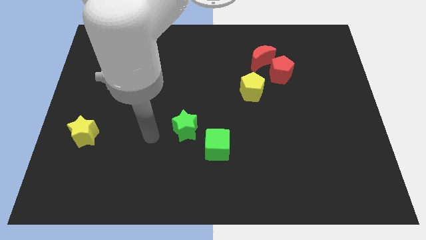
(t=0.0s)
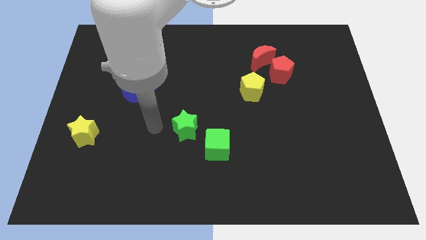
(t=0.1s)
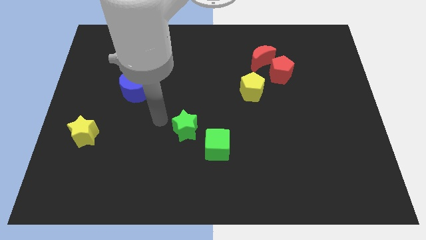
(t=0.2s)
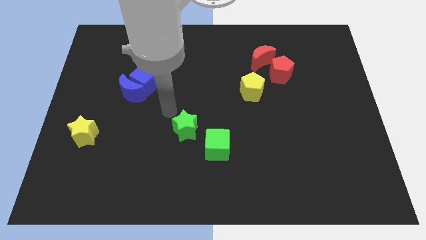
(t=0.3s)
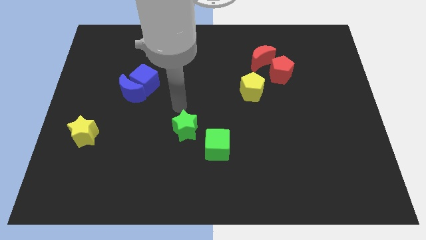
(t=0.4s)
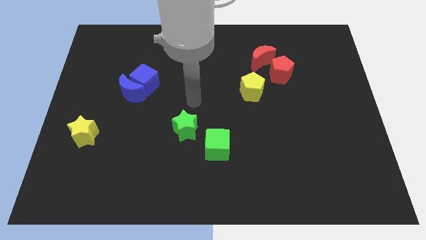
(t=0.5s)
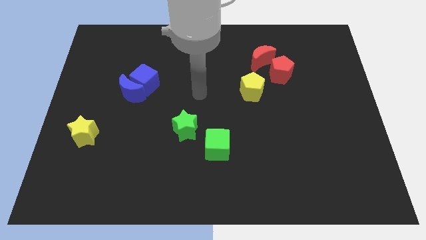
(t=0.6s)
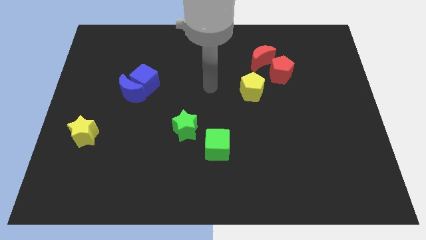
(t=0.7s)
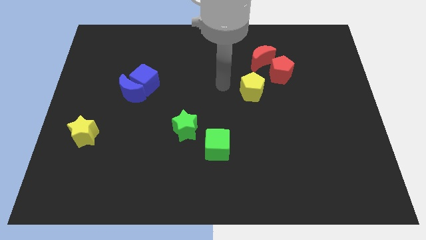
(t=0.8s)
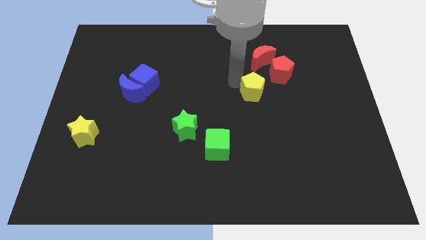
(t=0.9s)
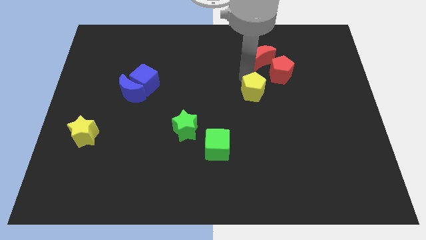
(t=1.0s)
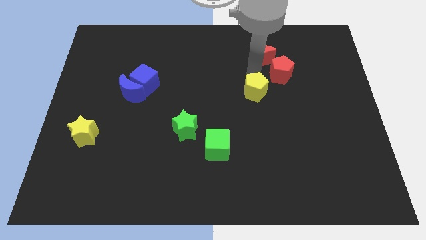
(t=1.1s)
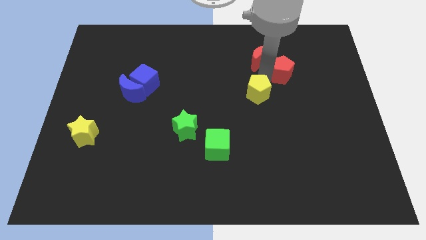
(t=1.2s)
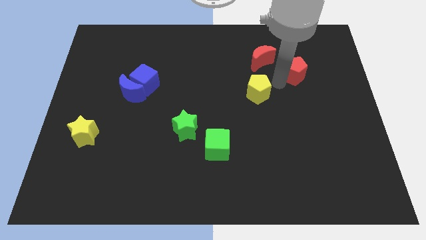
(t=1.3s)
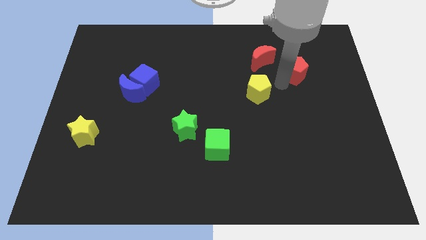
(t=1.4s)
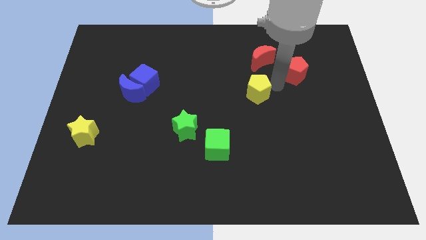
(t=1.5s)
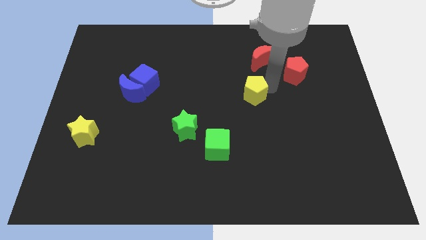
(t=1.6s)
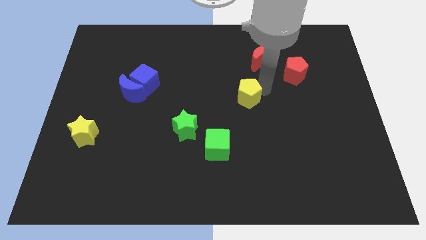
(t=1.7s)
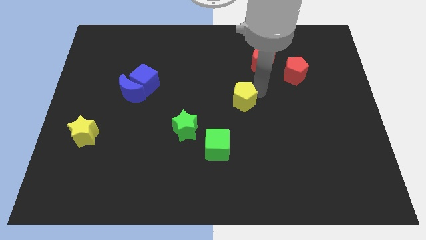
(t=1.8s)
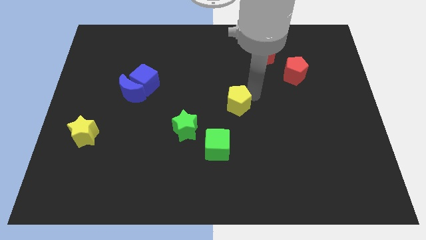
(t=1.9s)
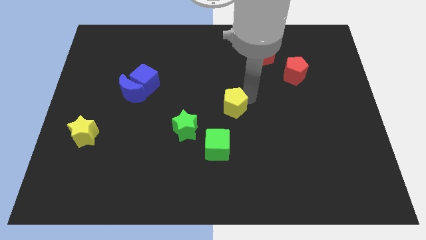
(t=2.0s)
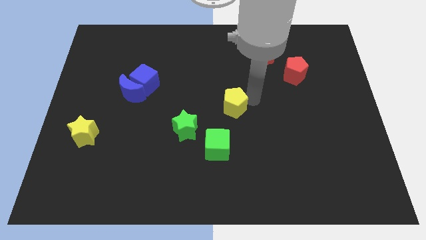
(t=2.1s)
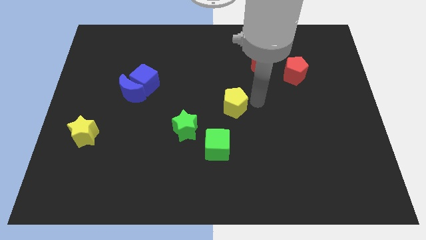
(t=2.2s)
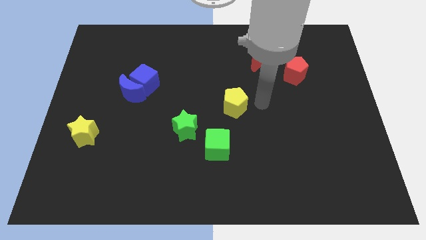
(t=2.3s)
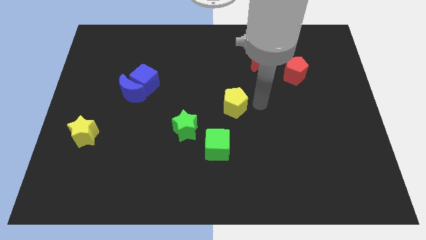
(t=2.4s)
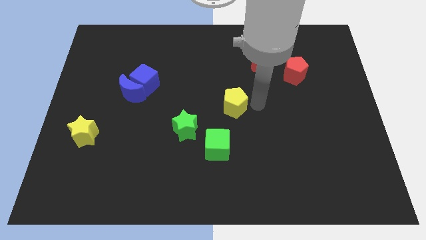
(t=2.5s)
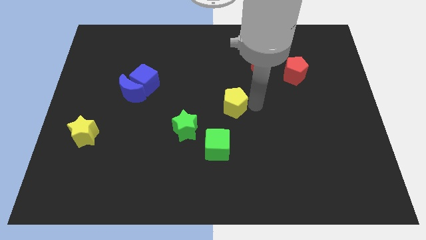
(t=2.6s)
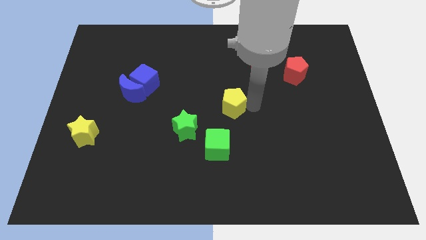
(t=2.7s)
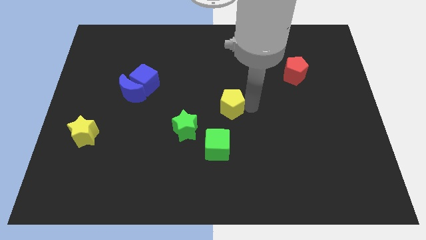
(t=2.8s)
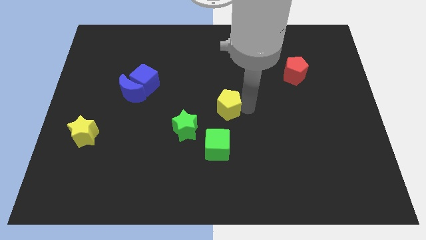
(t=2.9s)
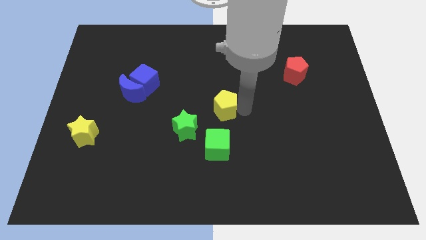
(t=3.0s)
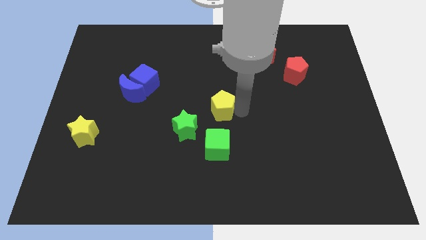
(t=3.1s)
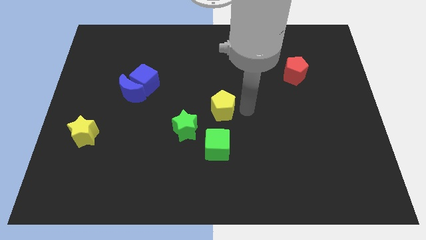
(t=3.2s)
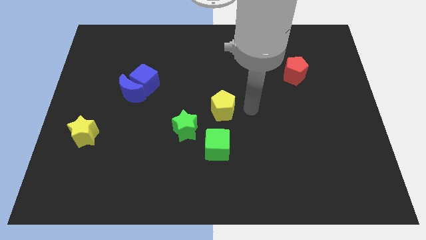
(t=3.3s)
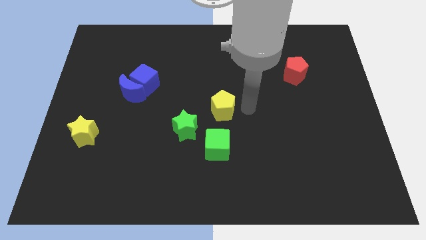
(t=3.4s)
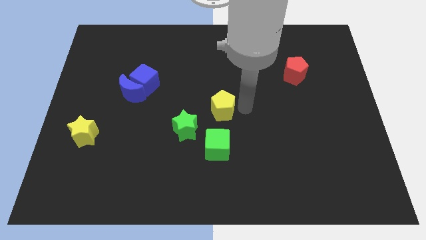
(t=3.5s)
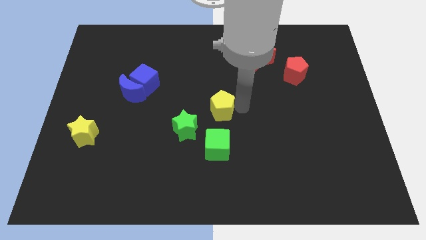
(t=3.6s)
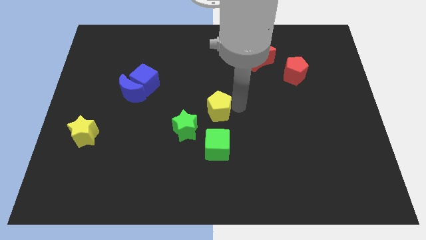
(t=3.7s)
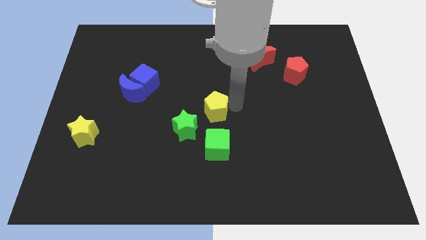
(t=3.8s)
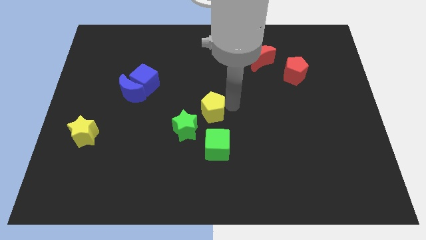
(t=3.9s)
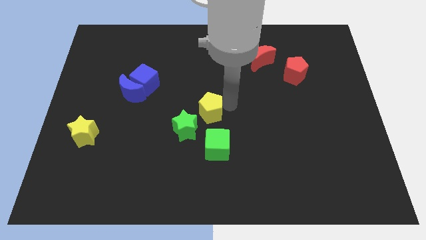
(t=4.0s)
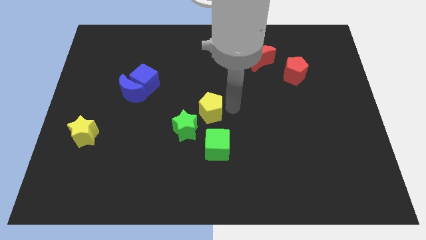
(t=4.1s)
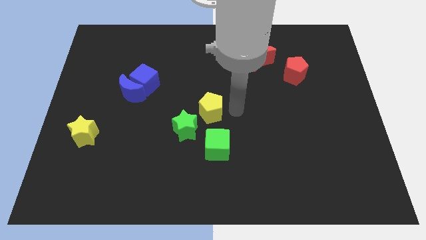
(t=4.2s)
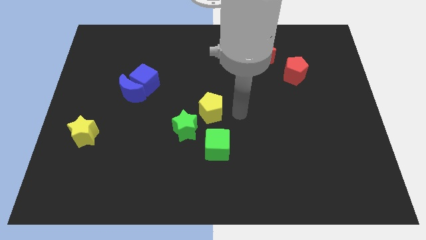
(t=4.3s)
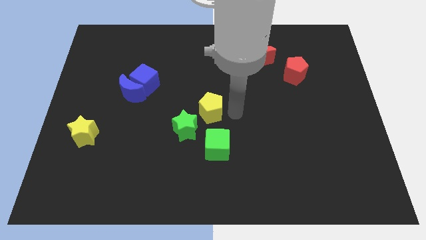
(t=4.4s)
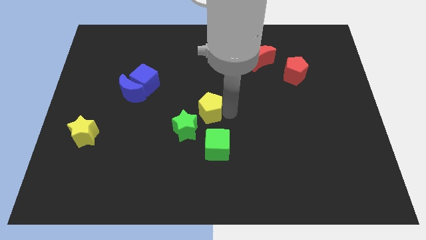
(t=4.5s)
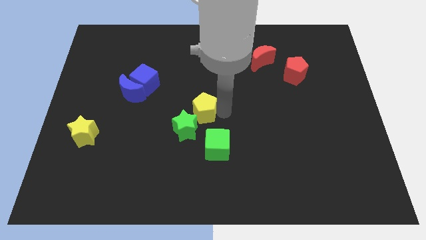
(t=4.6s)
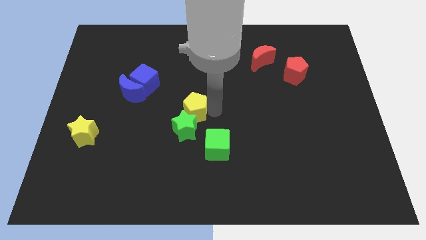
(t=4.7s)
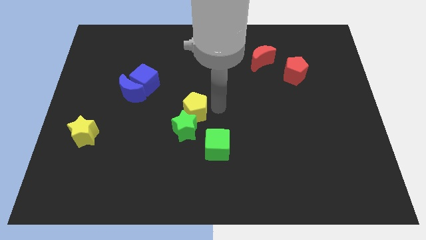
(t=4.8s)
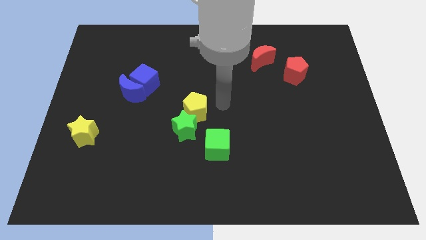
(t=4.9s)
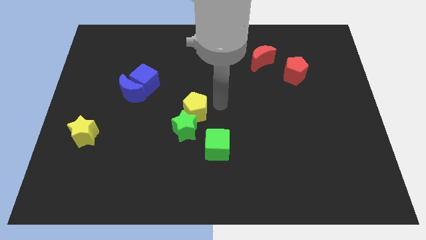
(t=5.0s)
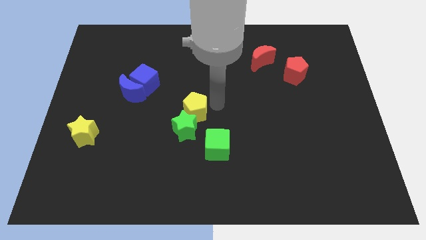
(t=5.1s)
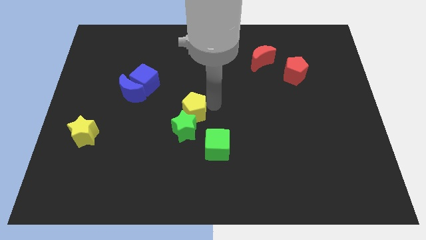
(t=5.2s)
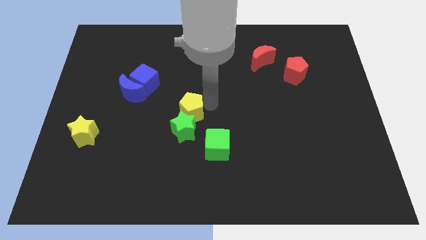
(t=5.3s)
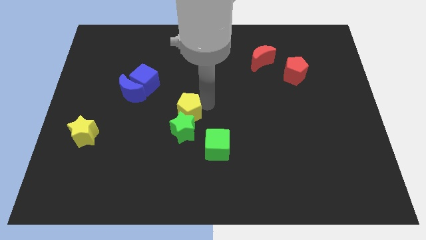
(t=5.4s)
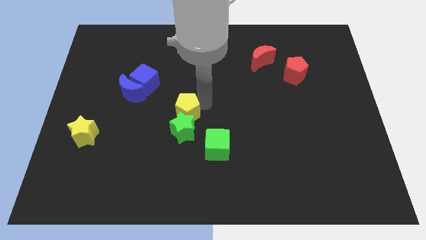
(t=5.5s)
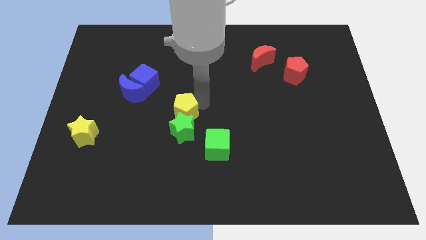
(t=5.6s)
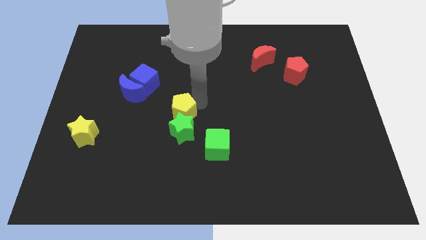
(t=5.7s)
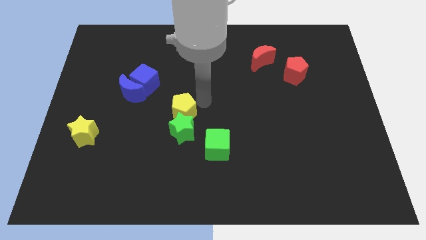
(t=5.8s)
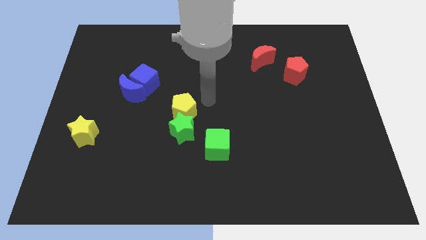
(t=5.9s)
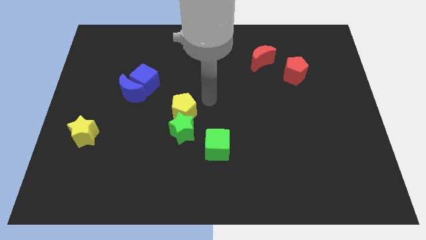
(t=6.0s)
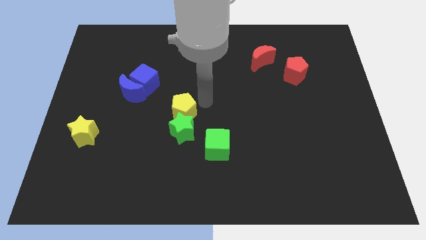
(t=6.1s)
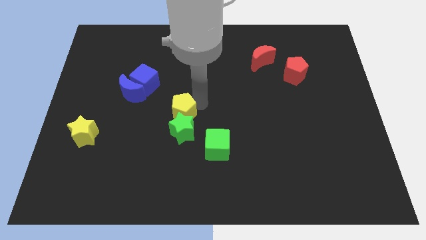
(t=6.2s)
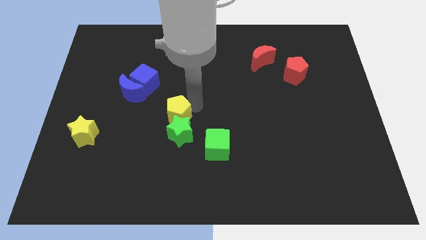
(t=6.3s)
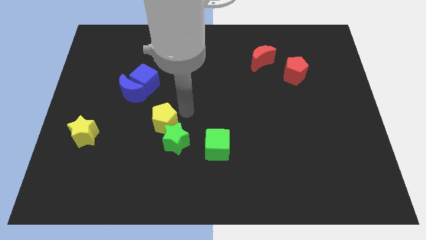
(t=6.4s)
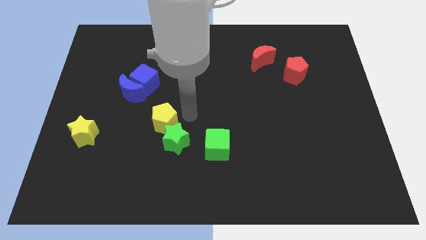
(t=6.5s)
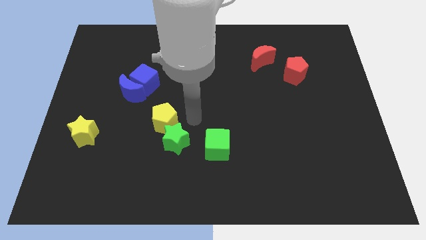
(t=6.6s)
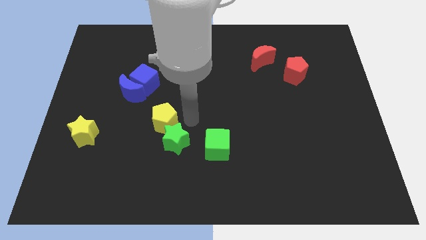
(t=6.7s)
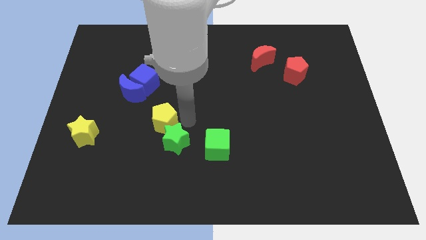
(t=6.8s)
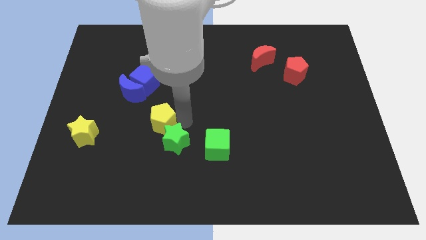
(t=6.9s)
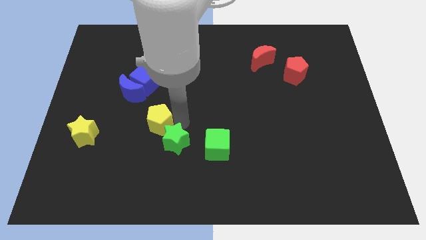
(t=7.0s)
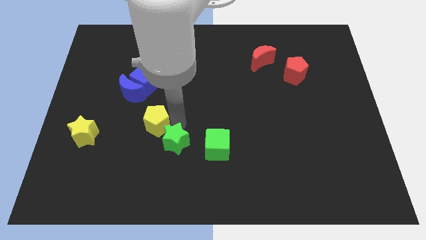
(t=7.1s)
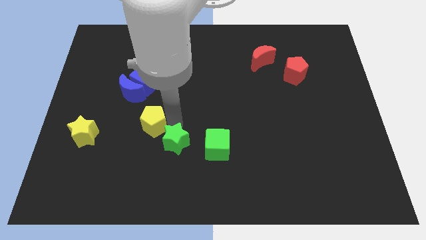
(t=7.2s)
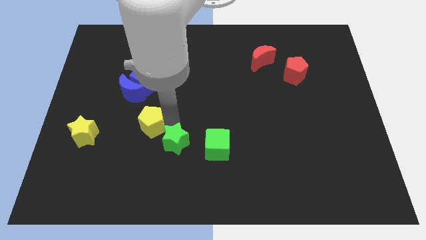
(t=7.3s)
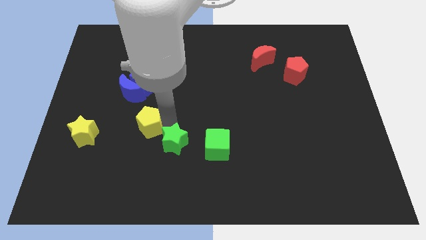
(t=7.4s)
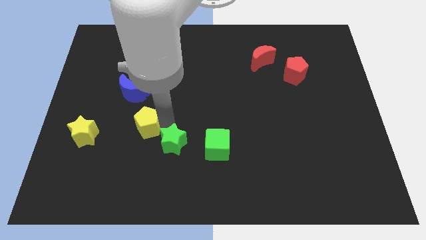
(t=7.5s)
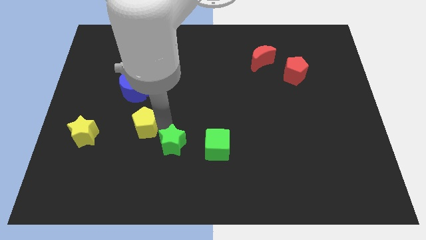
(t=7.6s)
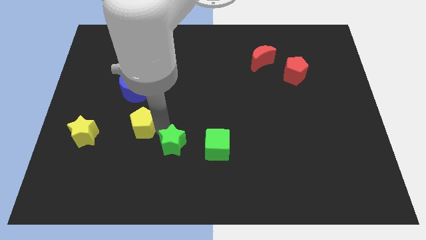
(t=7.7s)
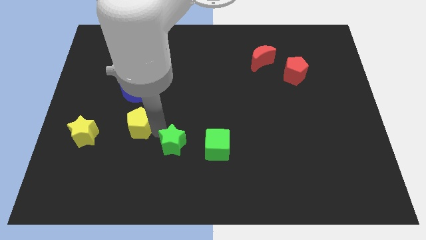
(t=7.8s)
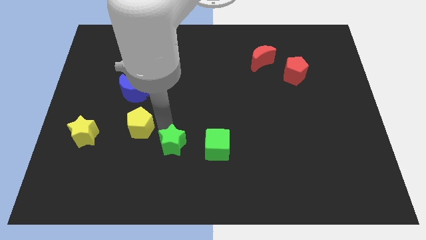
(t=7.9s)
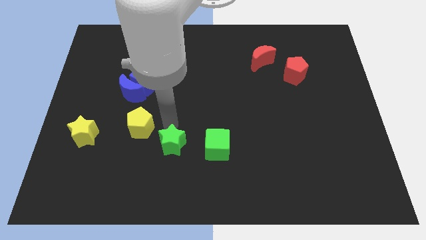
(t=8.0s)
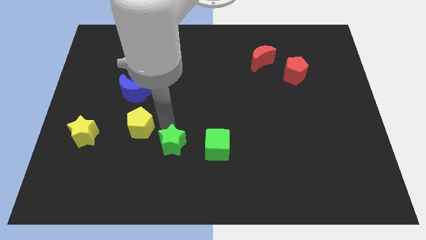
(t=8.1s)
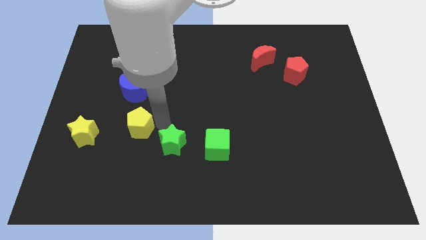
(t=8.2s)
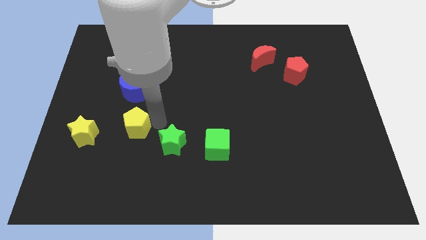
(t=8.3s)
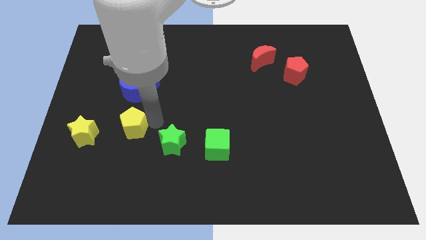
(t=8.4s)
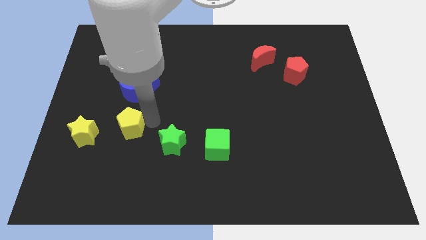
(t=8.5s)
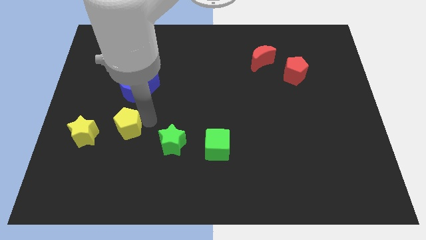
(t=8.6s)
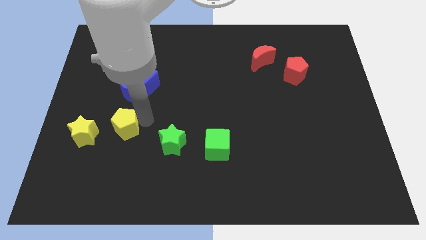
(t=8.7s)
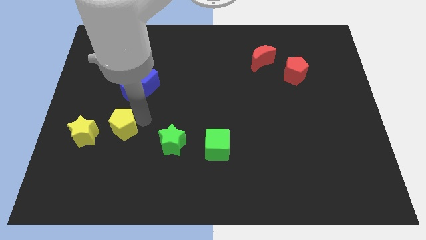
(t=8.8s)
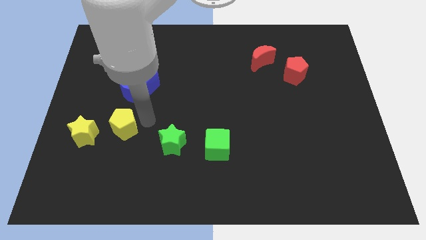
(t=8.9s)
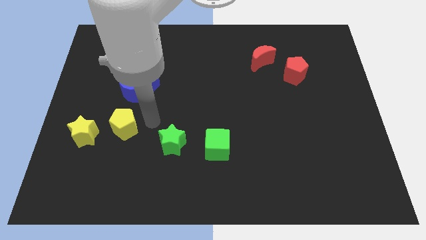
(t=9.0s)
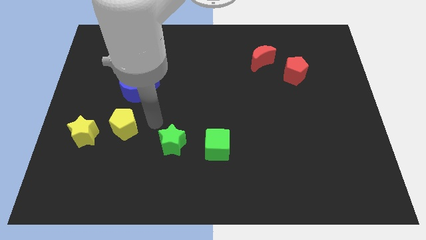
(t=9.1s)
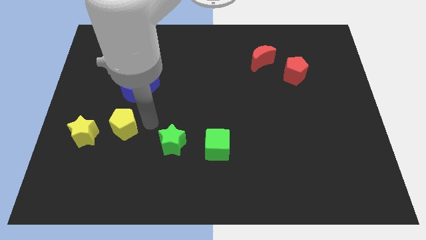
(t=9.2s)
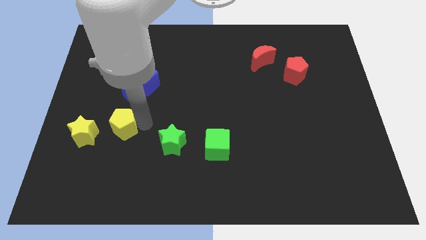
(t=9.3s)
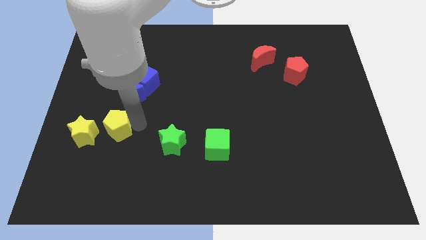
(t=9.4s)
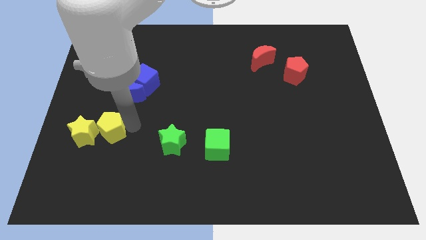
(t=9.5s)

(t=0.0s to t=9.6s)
put the yellow pentagon to the yellow star
